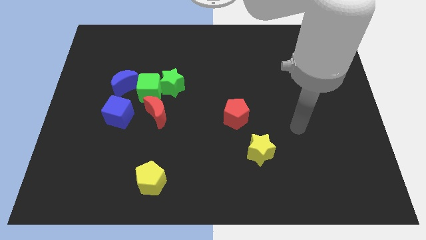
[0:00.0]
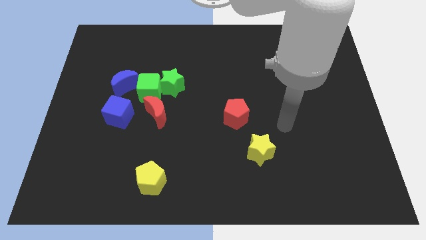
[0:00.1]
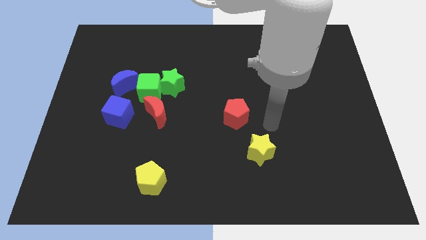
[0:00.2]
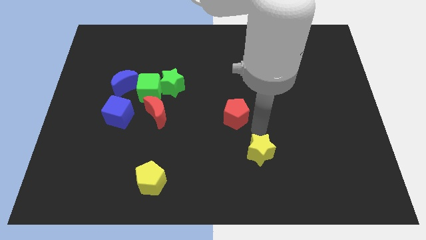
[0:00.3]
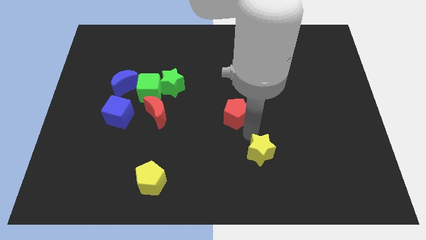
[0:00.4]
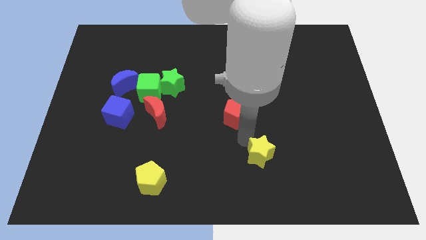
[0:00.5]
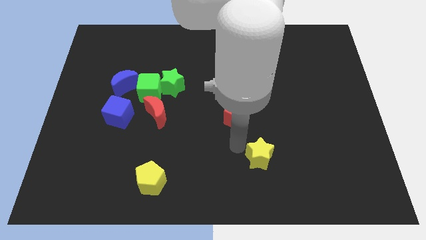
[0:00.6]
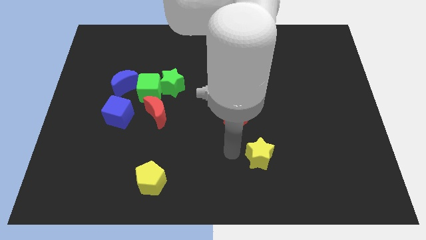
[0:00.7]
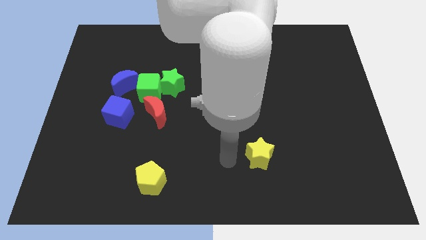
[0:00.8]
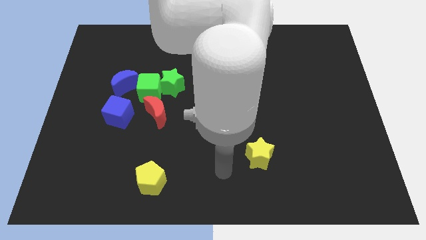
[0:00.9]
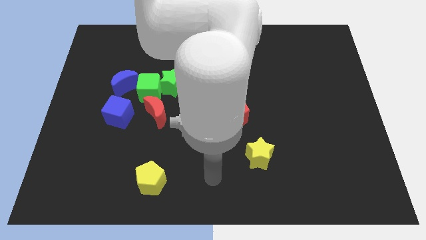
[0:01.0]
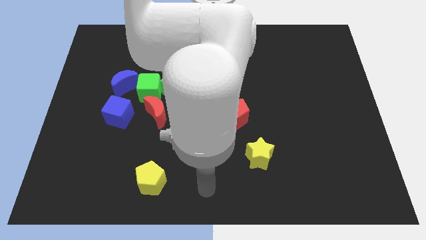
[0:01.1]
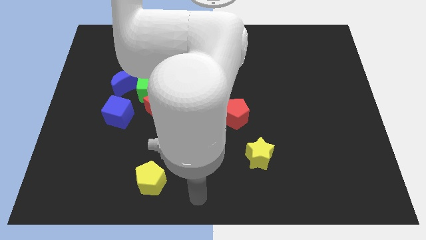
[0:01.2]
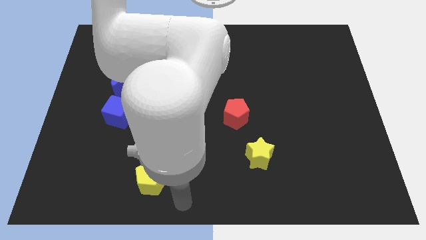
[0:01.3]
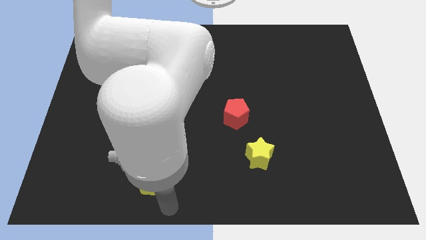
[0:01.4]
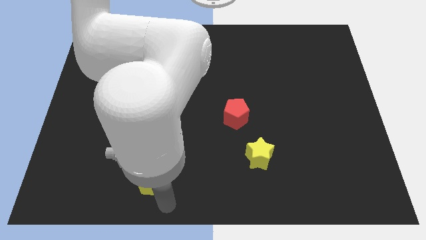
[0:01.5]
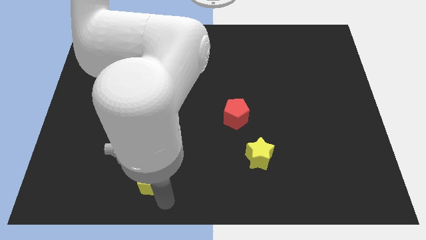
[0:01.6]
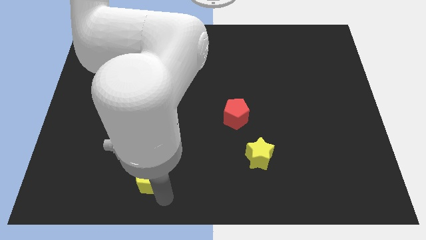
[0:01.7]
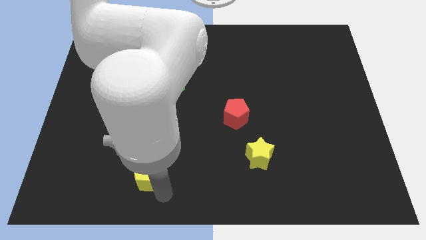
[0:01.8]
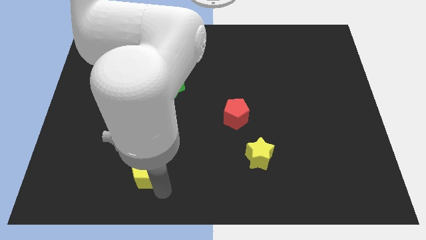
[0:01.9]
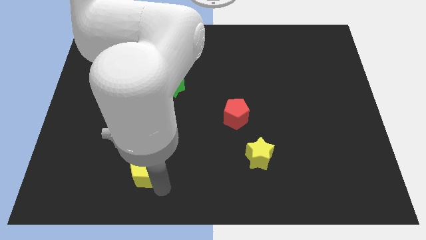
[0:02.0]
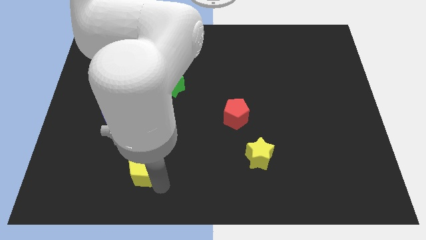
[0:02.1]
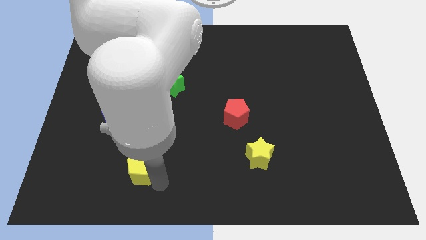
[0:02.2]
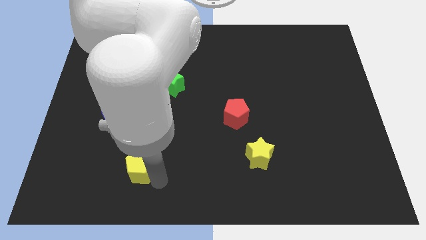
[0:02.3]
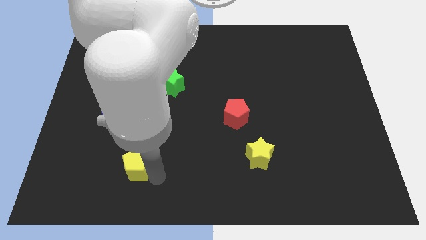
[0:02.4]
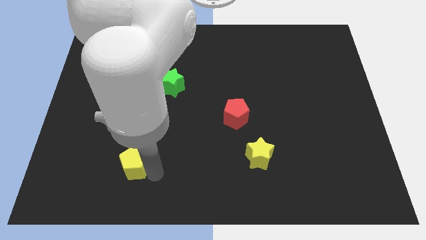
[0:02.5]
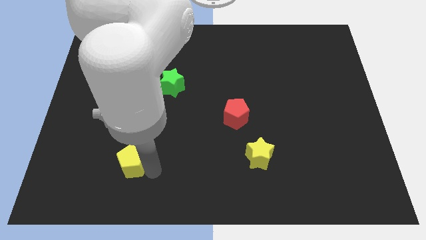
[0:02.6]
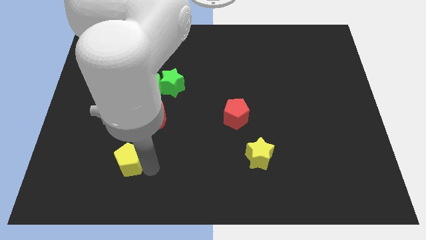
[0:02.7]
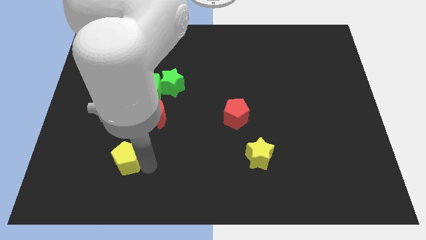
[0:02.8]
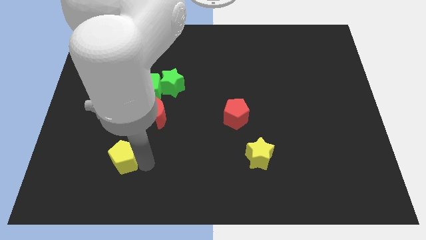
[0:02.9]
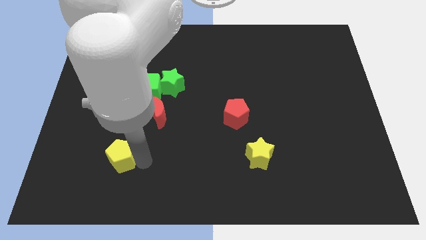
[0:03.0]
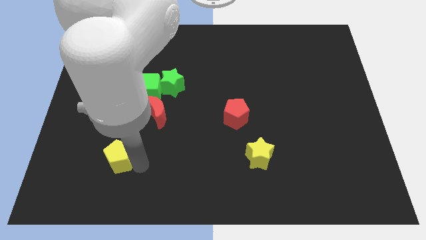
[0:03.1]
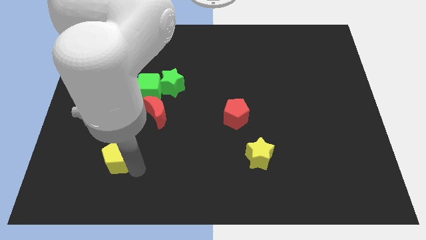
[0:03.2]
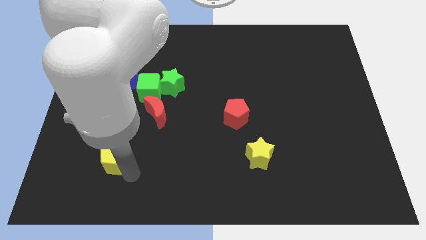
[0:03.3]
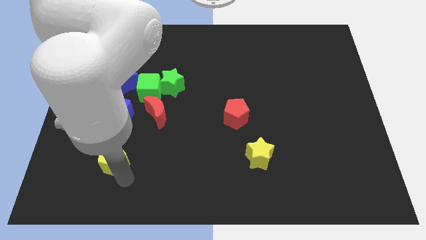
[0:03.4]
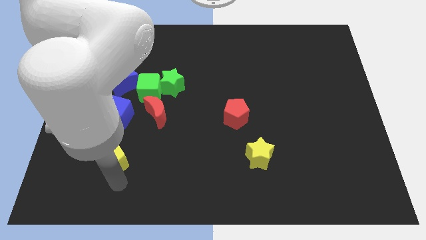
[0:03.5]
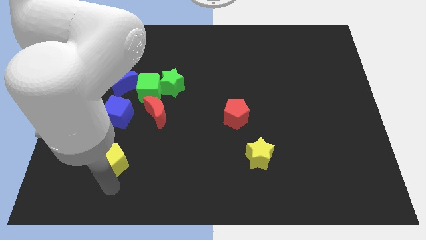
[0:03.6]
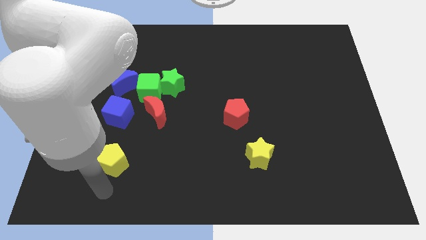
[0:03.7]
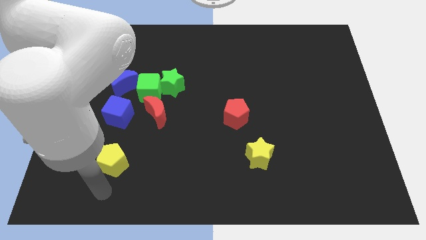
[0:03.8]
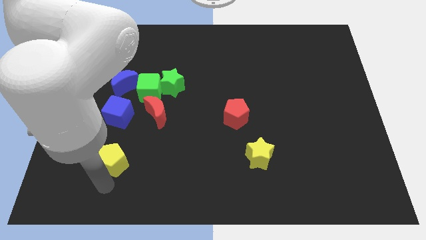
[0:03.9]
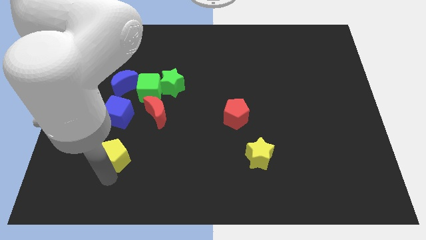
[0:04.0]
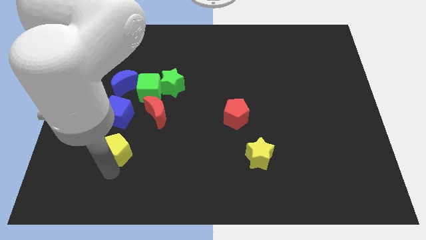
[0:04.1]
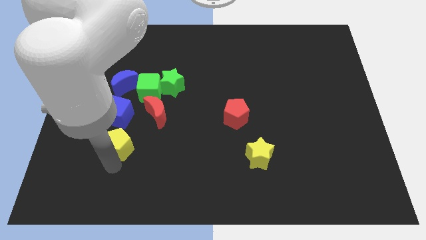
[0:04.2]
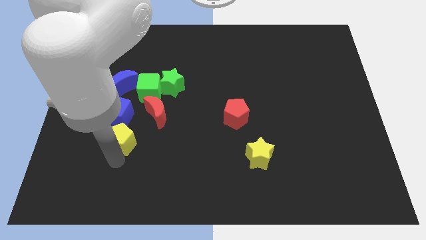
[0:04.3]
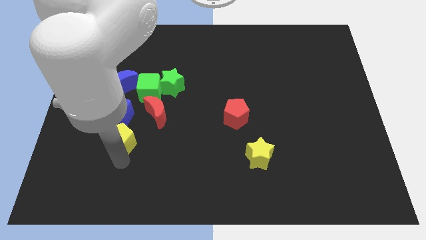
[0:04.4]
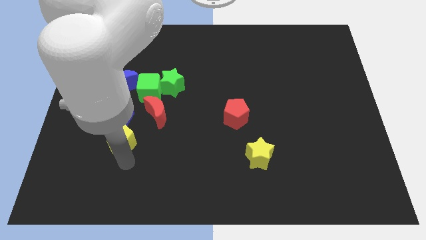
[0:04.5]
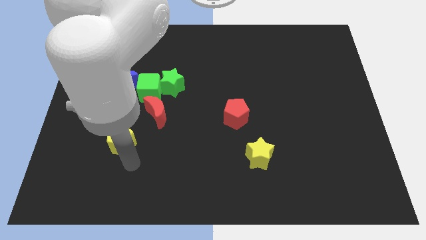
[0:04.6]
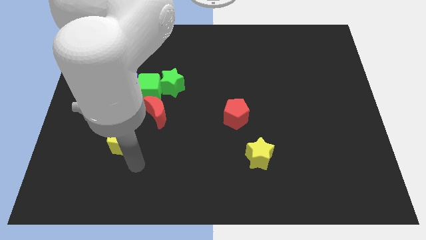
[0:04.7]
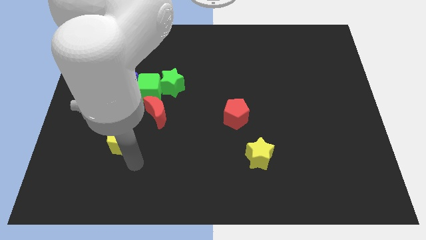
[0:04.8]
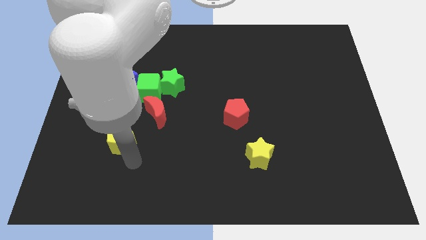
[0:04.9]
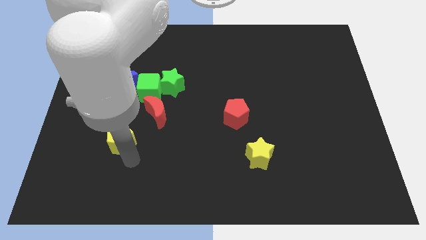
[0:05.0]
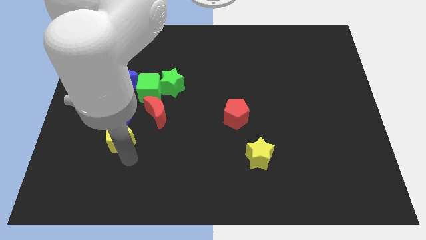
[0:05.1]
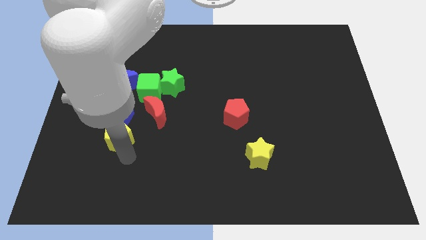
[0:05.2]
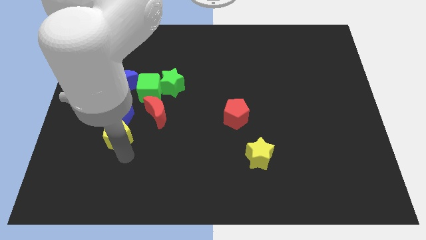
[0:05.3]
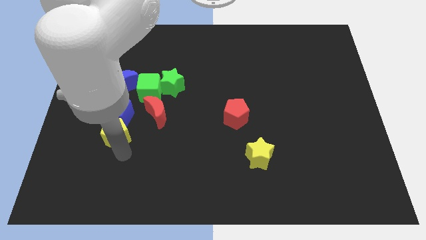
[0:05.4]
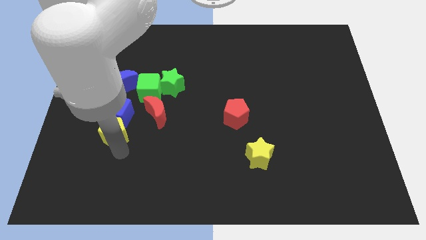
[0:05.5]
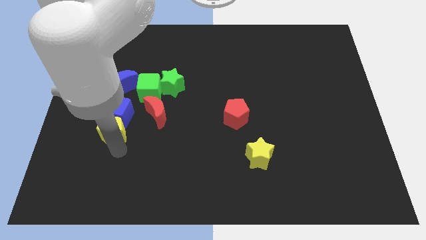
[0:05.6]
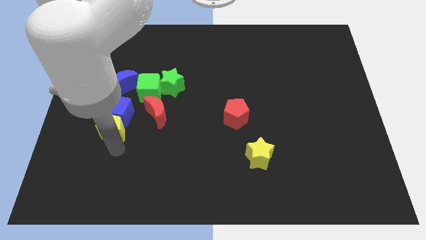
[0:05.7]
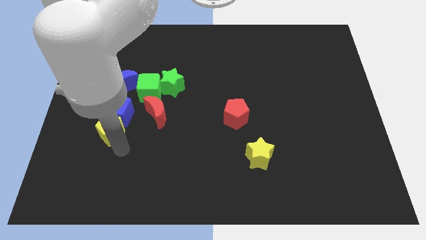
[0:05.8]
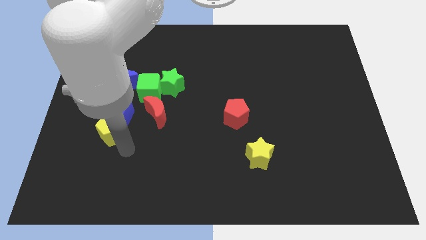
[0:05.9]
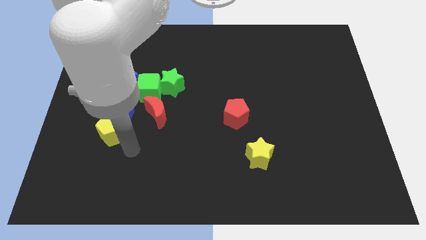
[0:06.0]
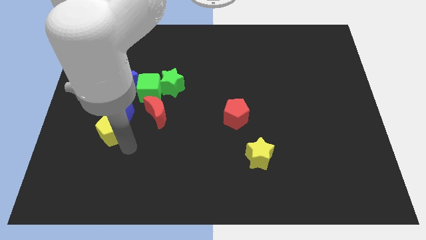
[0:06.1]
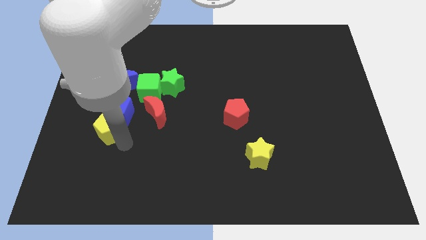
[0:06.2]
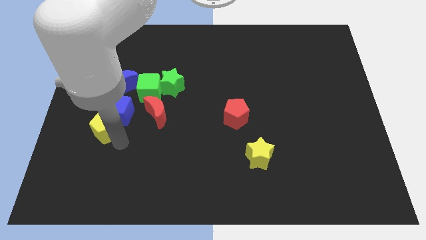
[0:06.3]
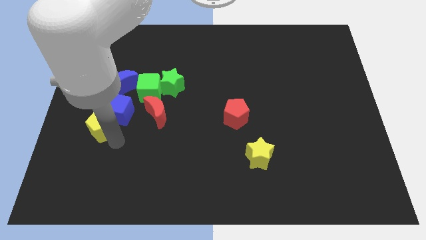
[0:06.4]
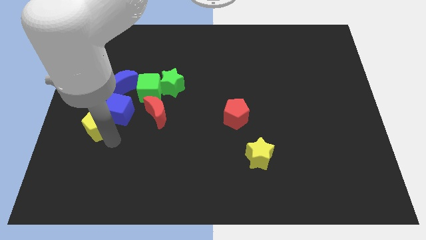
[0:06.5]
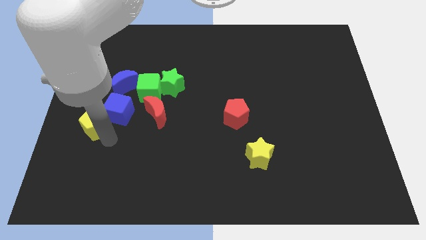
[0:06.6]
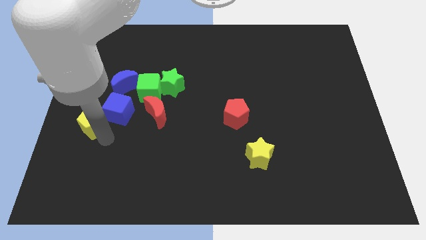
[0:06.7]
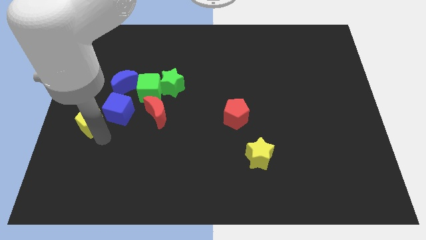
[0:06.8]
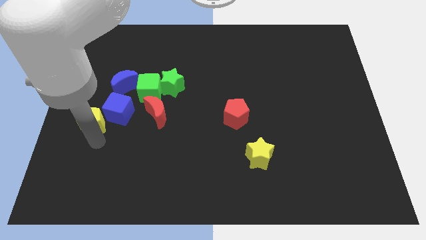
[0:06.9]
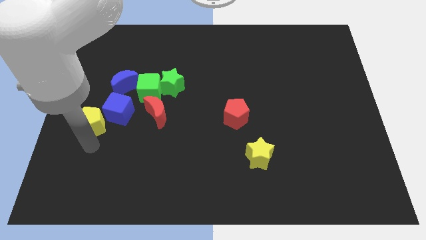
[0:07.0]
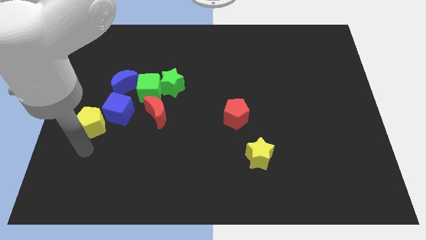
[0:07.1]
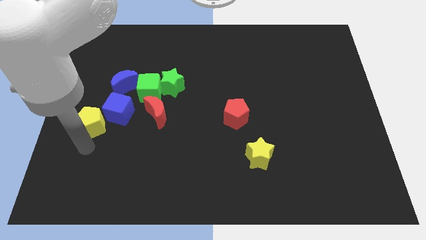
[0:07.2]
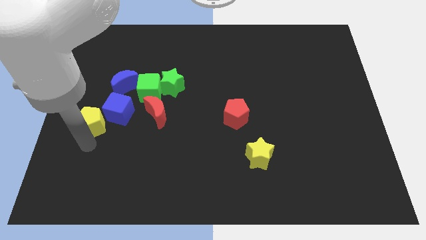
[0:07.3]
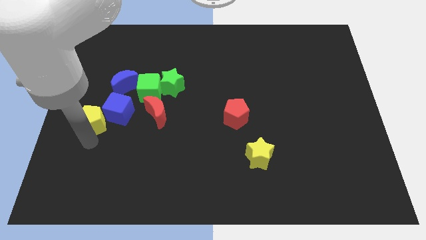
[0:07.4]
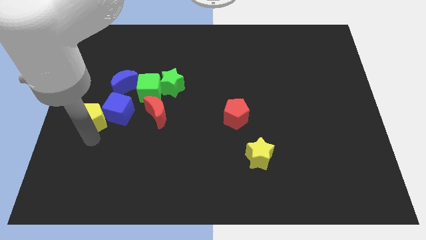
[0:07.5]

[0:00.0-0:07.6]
put the yellow pentagon diagonally down and to the left of the blue moon
